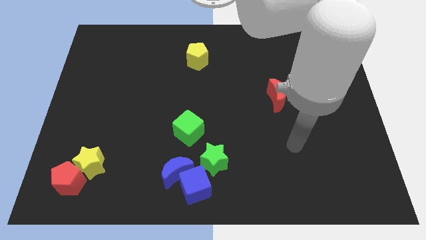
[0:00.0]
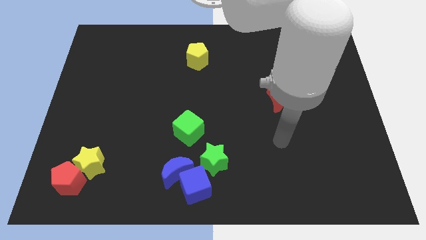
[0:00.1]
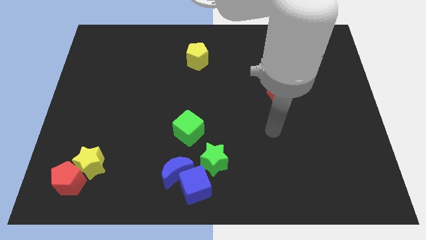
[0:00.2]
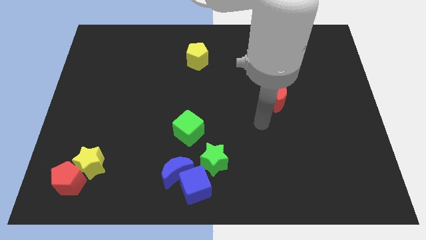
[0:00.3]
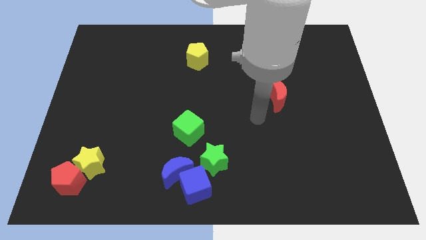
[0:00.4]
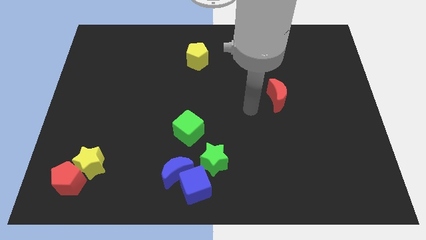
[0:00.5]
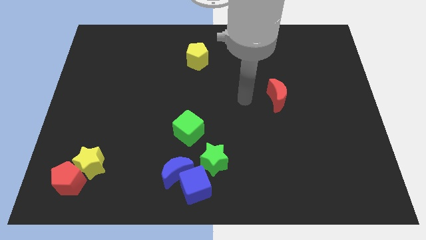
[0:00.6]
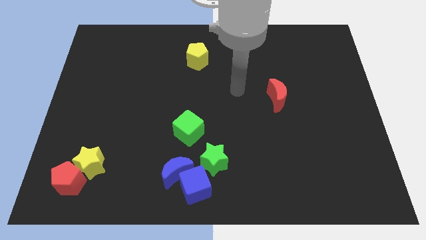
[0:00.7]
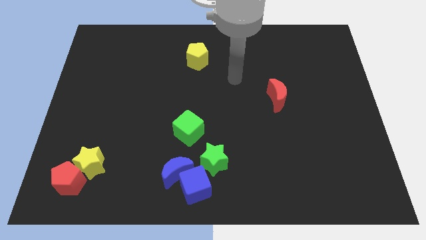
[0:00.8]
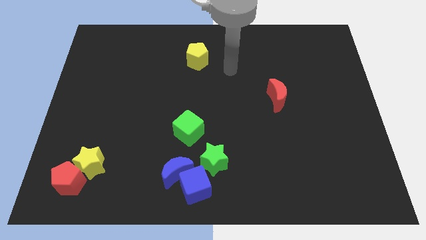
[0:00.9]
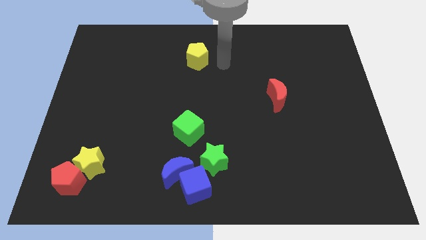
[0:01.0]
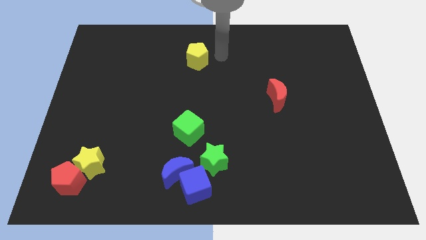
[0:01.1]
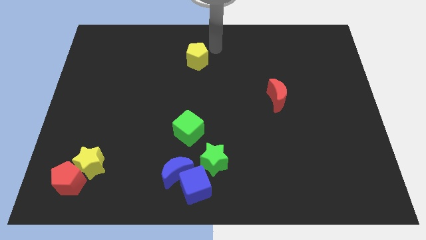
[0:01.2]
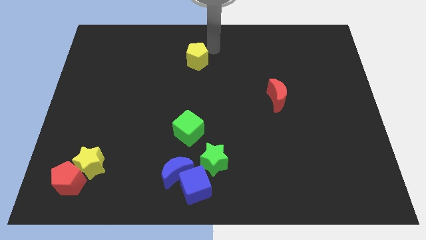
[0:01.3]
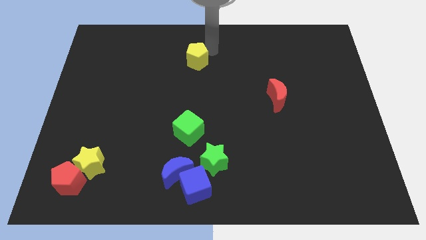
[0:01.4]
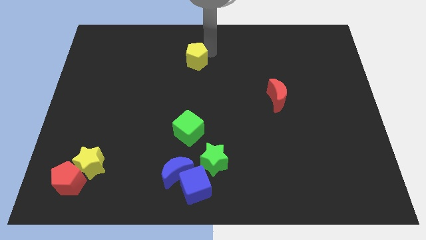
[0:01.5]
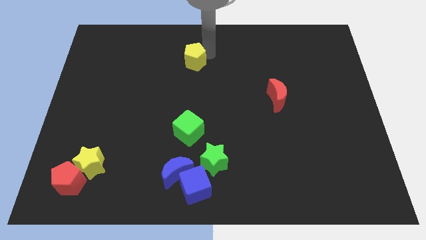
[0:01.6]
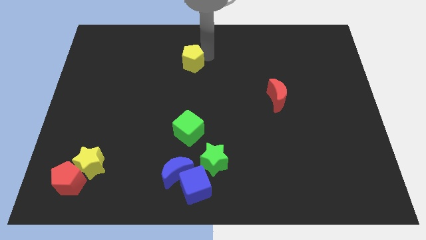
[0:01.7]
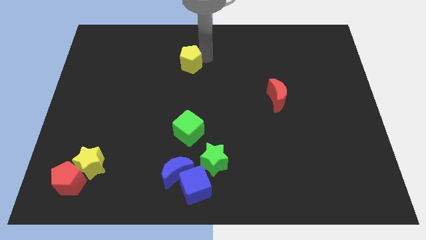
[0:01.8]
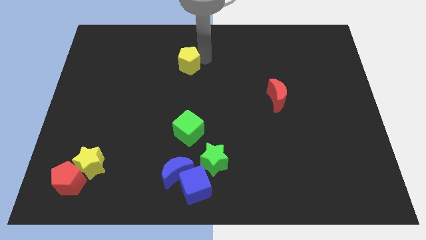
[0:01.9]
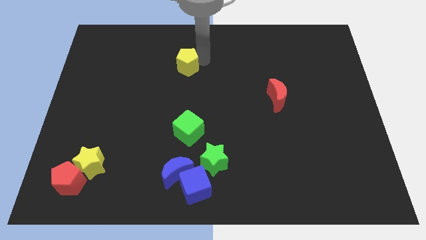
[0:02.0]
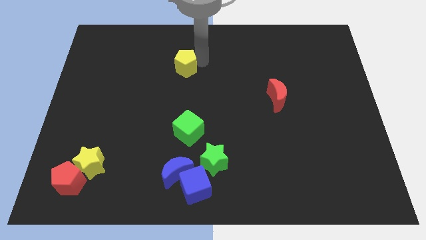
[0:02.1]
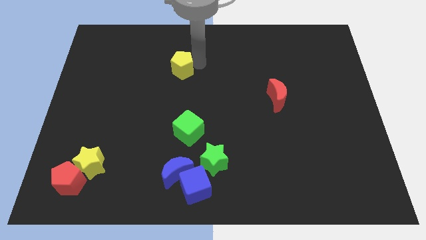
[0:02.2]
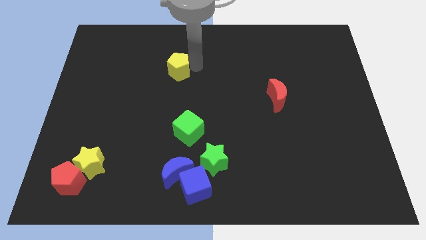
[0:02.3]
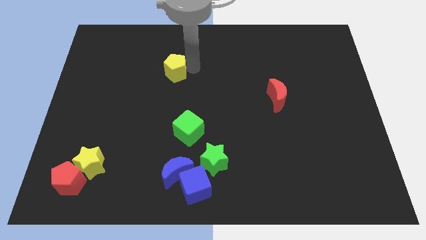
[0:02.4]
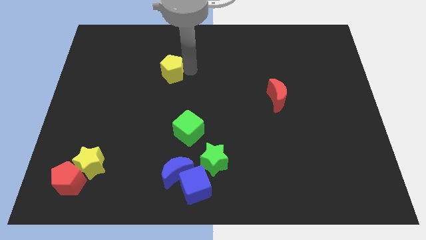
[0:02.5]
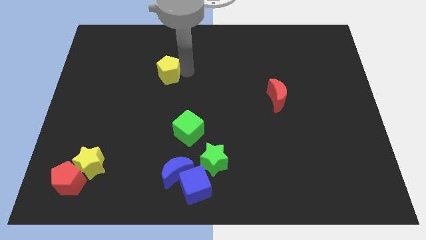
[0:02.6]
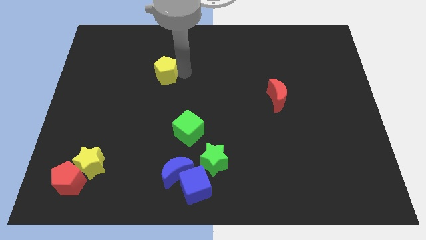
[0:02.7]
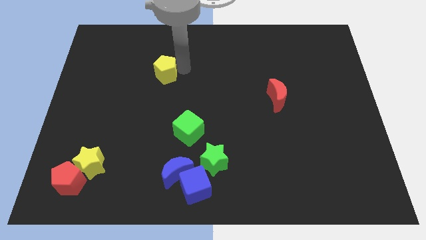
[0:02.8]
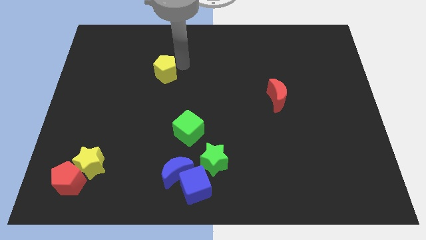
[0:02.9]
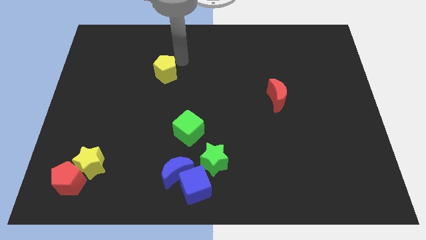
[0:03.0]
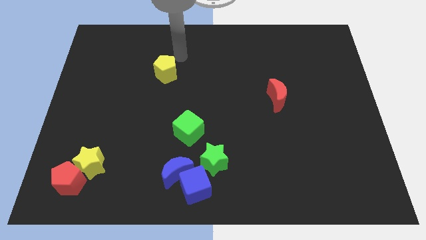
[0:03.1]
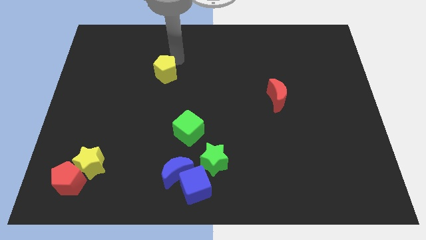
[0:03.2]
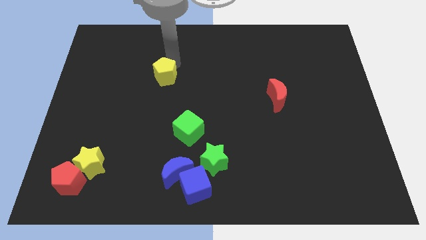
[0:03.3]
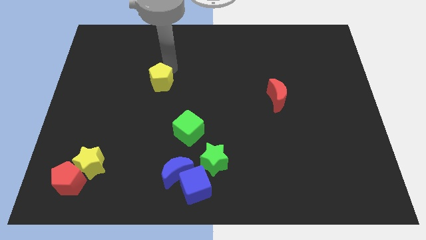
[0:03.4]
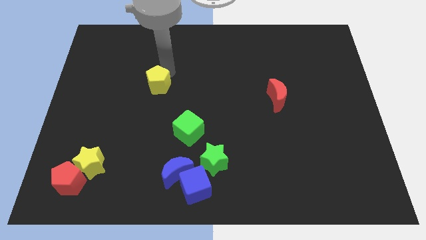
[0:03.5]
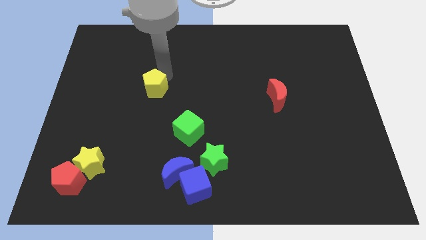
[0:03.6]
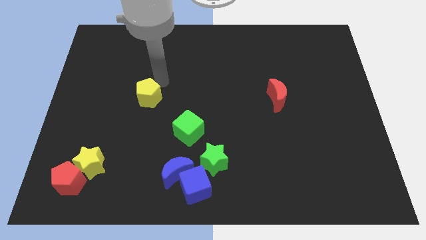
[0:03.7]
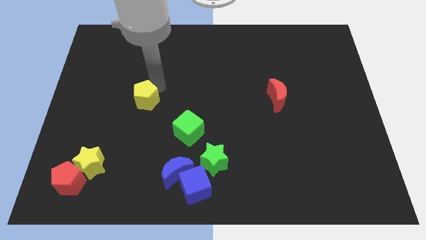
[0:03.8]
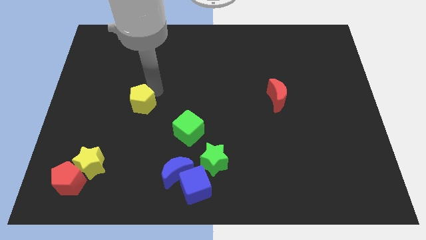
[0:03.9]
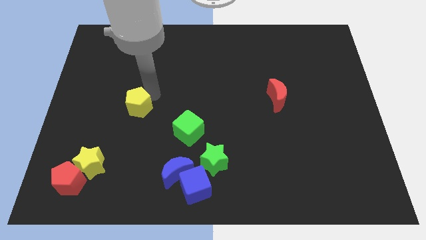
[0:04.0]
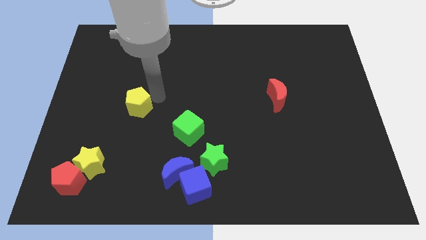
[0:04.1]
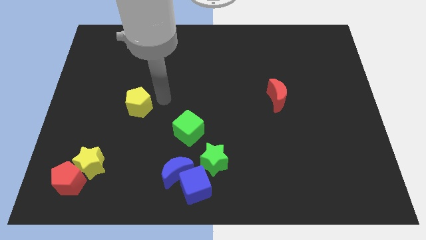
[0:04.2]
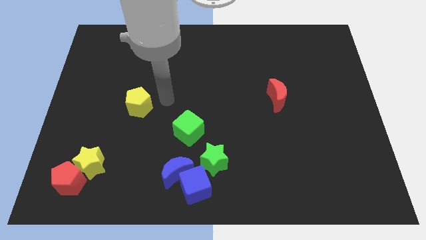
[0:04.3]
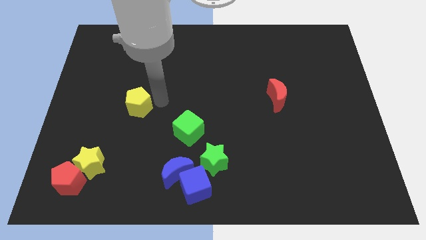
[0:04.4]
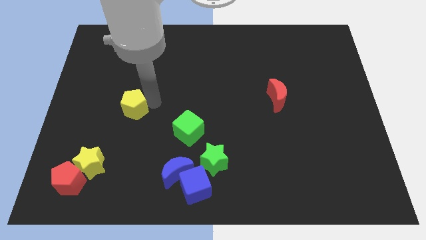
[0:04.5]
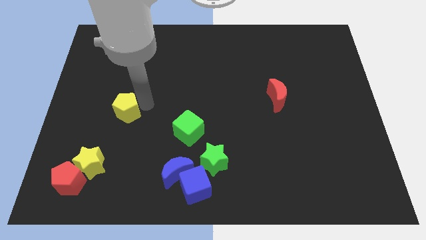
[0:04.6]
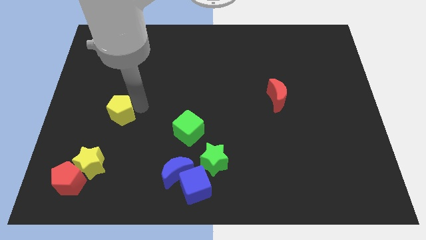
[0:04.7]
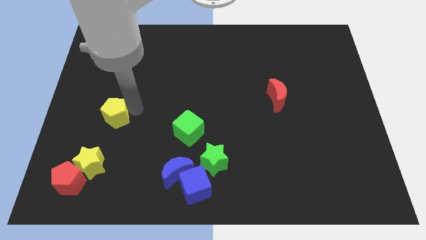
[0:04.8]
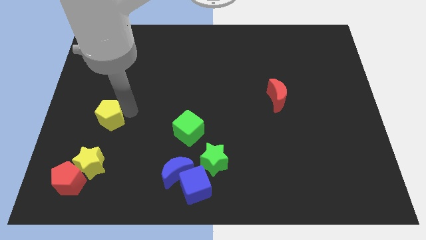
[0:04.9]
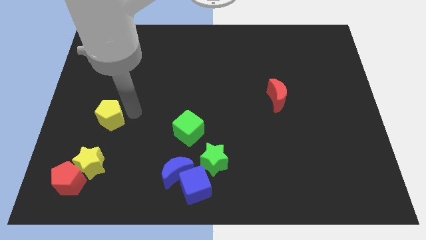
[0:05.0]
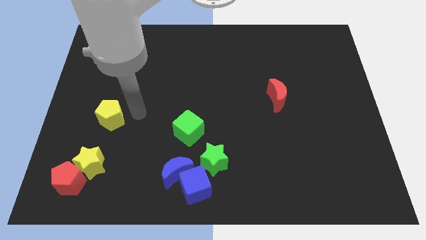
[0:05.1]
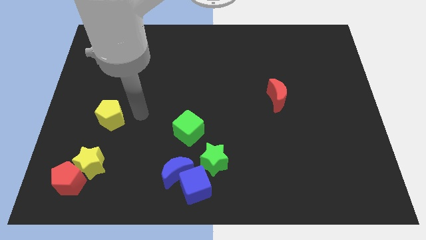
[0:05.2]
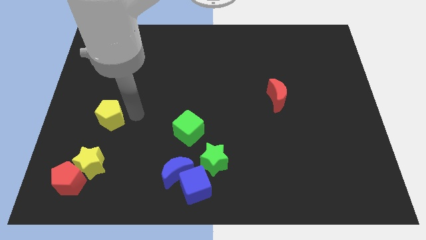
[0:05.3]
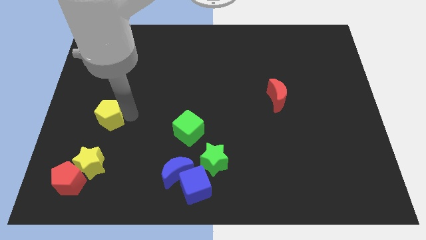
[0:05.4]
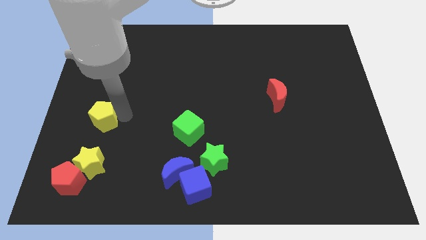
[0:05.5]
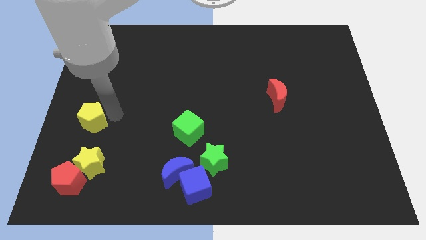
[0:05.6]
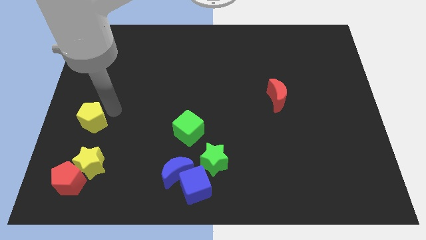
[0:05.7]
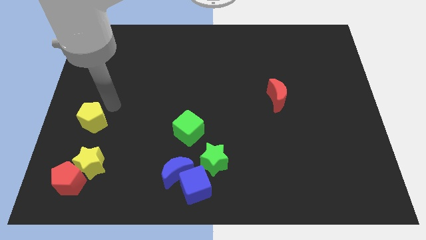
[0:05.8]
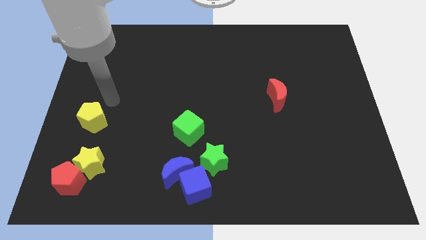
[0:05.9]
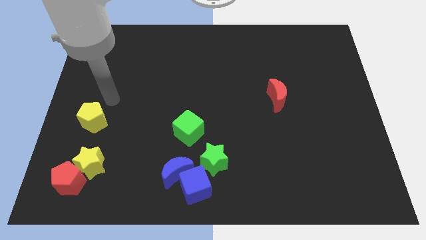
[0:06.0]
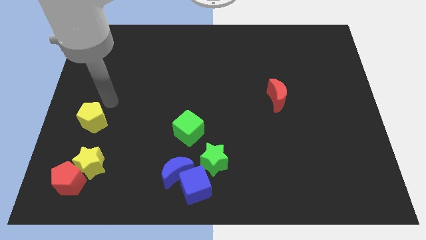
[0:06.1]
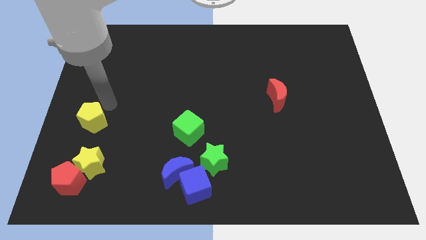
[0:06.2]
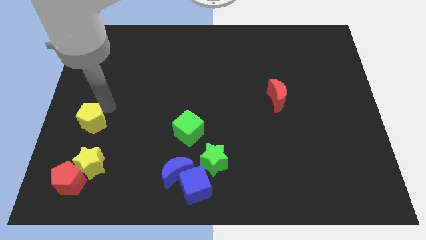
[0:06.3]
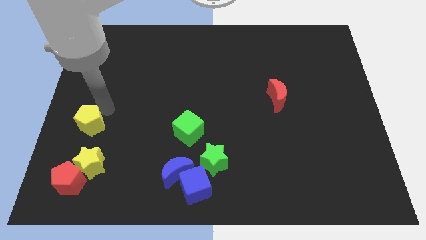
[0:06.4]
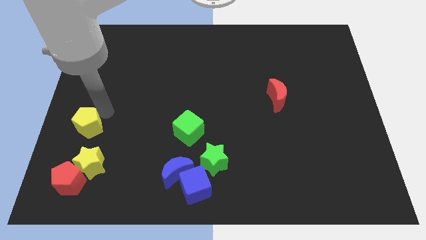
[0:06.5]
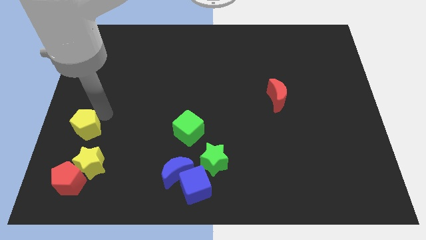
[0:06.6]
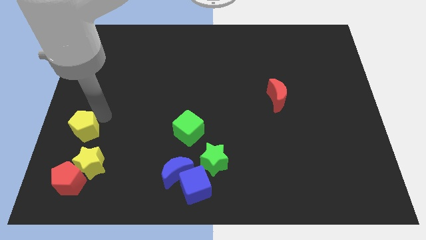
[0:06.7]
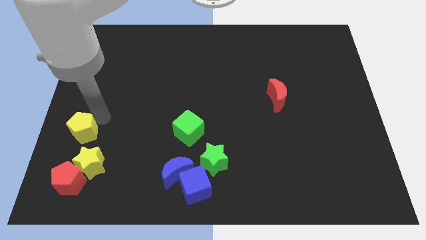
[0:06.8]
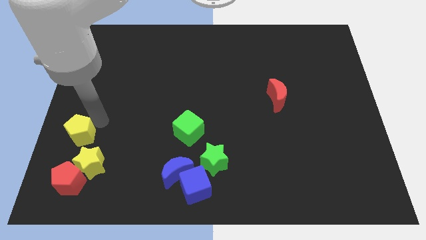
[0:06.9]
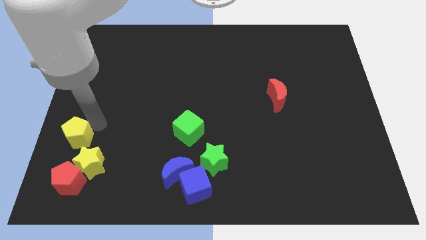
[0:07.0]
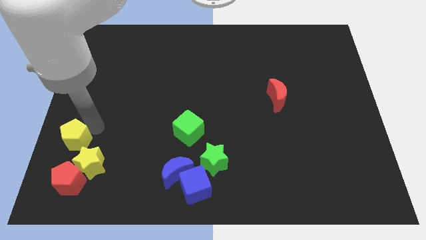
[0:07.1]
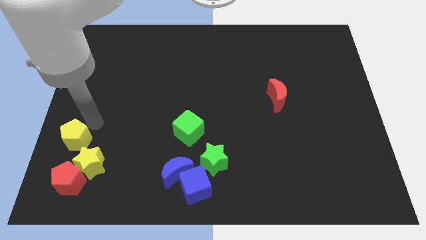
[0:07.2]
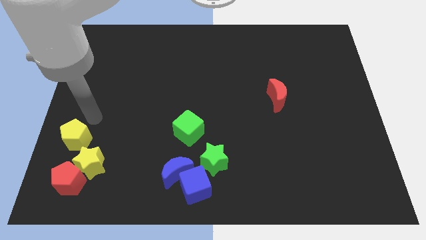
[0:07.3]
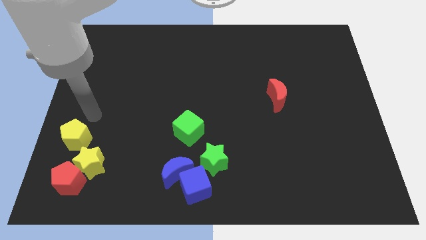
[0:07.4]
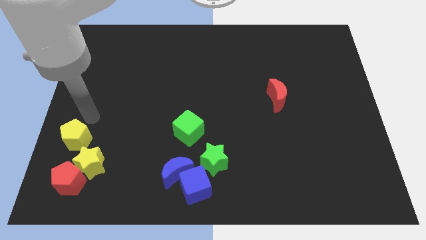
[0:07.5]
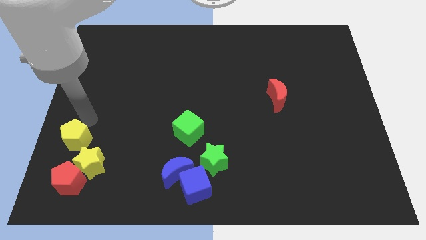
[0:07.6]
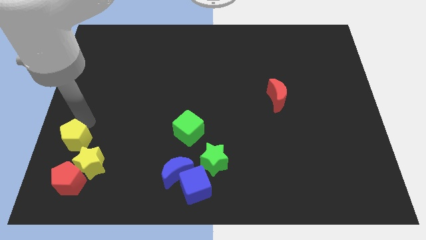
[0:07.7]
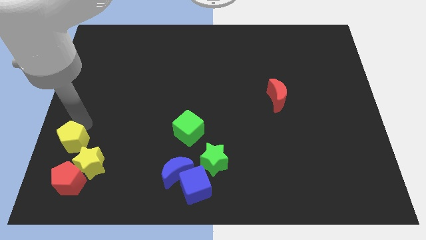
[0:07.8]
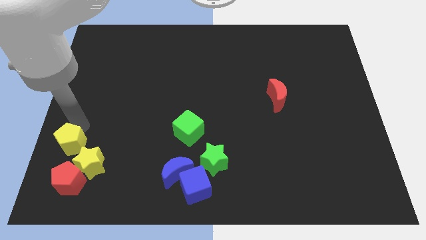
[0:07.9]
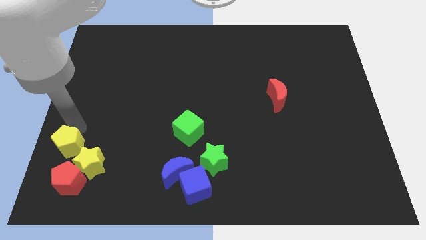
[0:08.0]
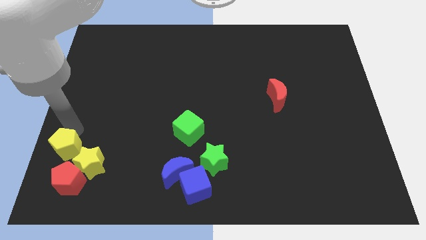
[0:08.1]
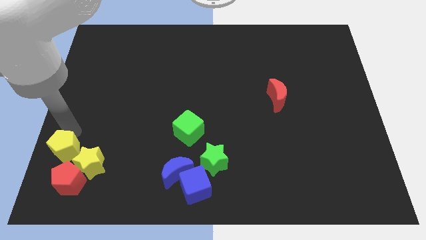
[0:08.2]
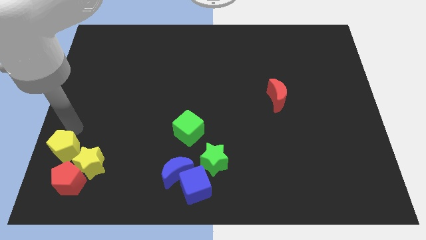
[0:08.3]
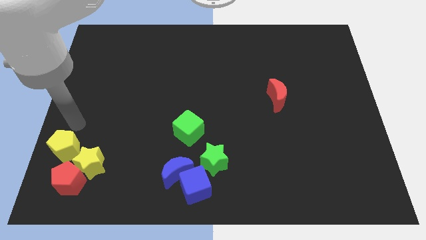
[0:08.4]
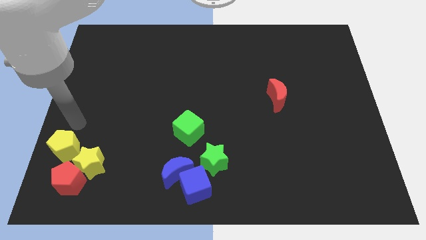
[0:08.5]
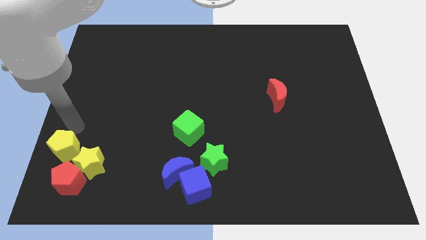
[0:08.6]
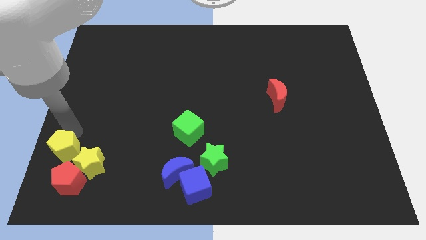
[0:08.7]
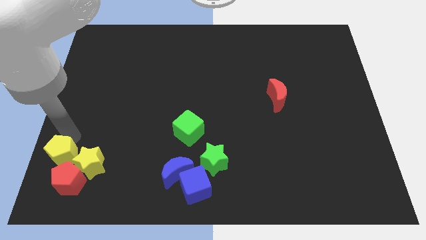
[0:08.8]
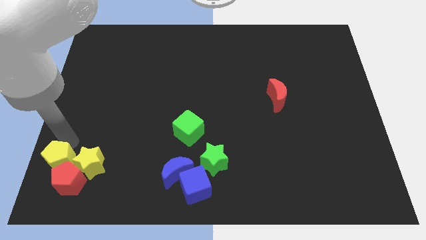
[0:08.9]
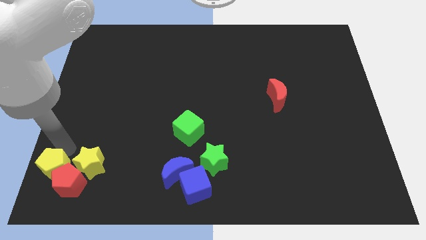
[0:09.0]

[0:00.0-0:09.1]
move the yellow pentagon to the bottom left
